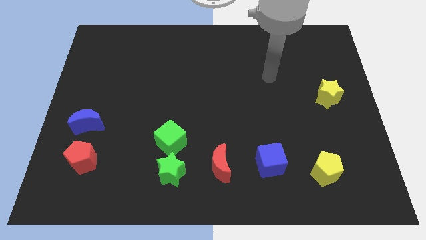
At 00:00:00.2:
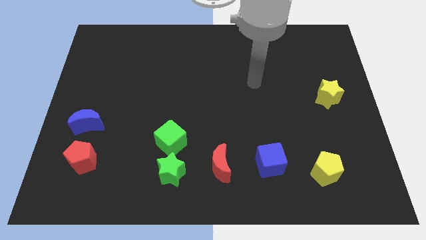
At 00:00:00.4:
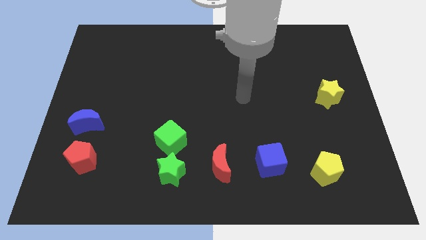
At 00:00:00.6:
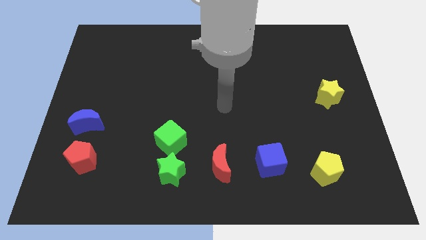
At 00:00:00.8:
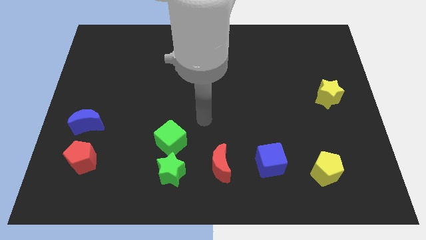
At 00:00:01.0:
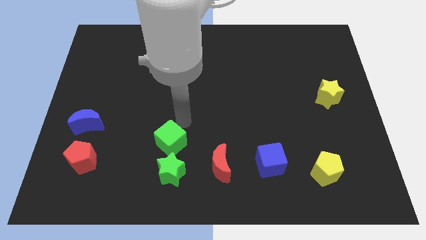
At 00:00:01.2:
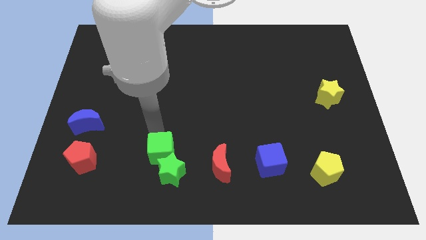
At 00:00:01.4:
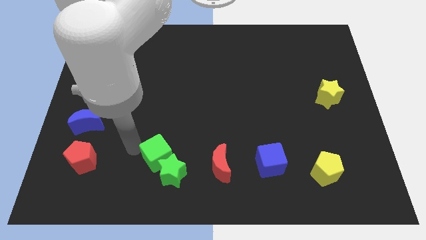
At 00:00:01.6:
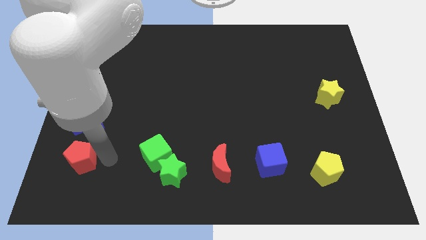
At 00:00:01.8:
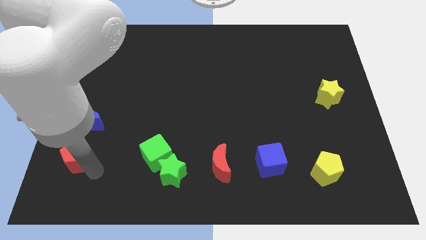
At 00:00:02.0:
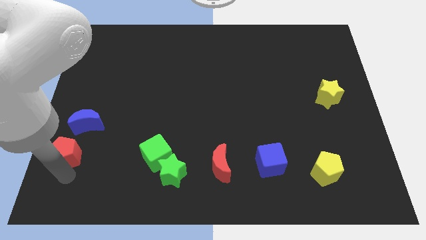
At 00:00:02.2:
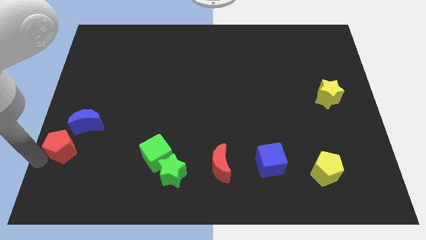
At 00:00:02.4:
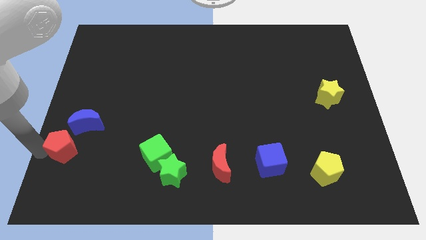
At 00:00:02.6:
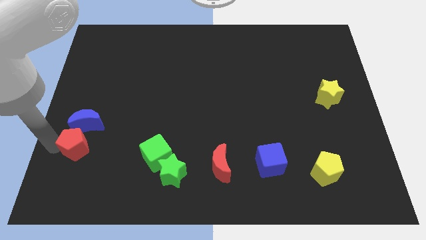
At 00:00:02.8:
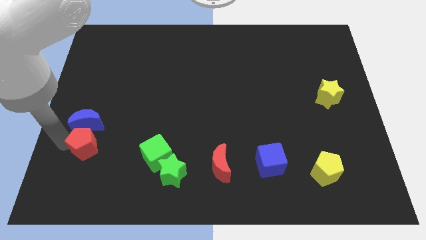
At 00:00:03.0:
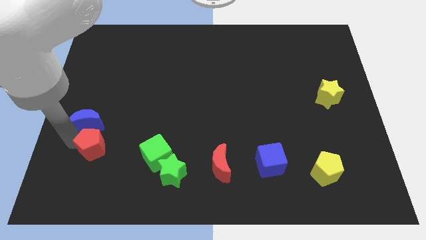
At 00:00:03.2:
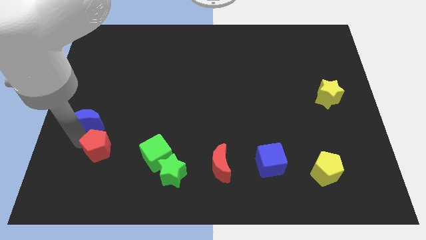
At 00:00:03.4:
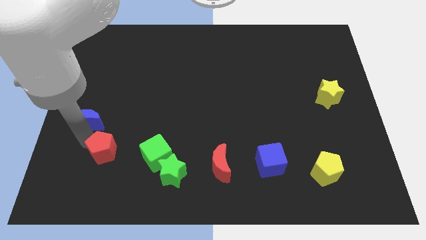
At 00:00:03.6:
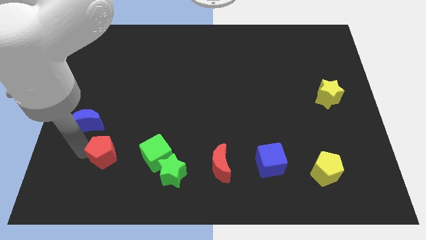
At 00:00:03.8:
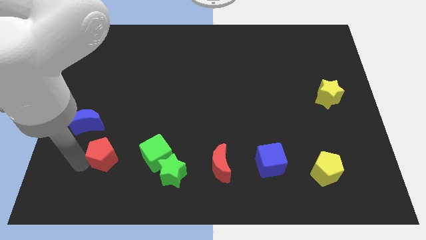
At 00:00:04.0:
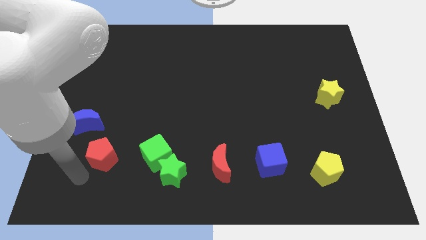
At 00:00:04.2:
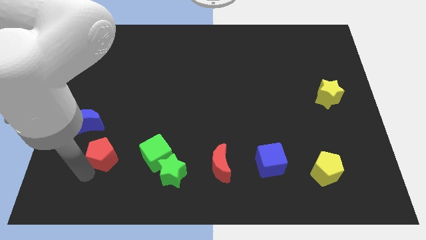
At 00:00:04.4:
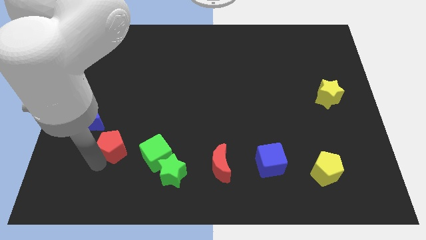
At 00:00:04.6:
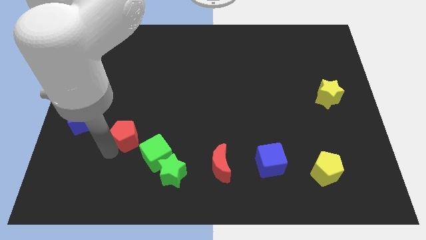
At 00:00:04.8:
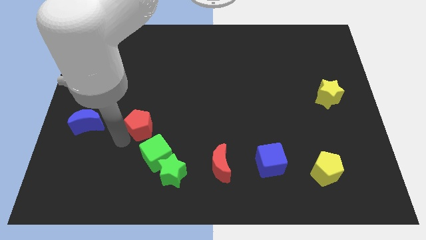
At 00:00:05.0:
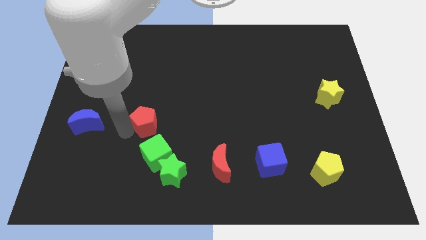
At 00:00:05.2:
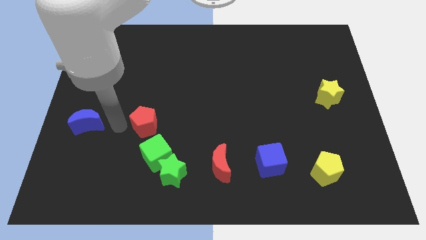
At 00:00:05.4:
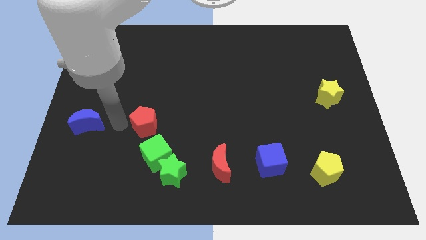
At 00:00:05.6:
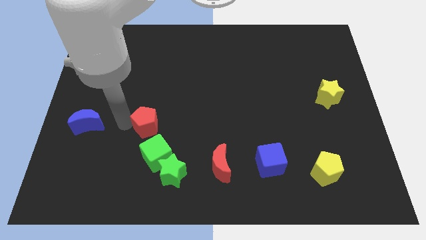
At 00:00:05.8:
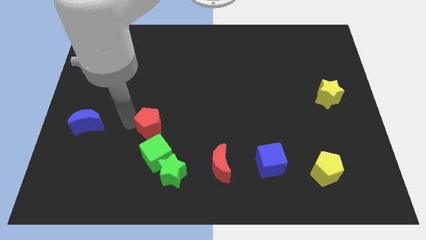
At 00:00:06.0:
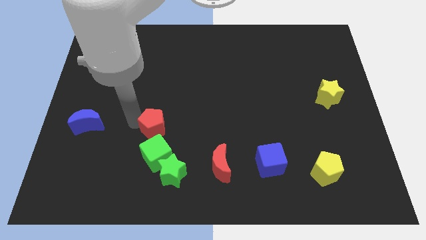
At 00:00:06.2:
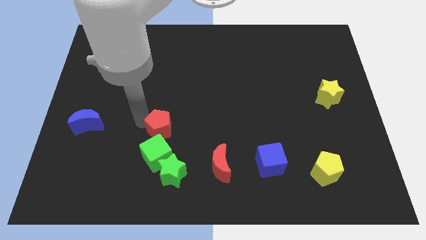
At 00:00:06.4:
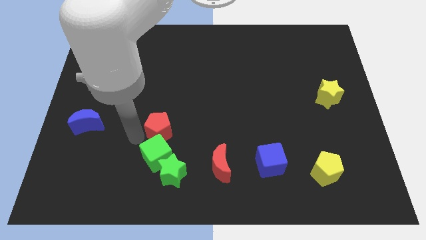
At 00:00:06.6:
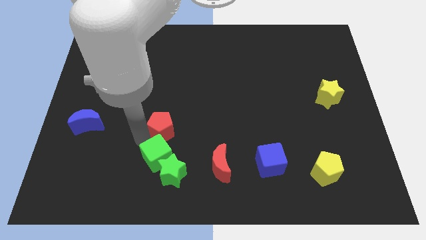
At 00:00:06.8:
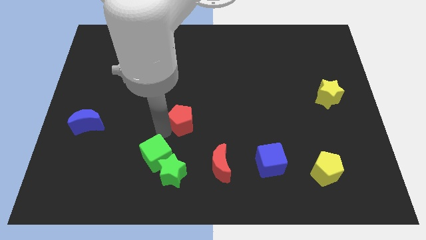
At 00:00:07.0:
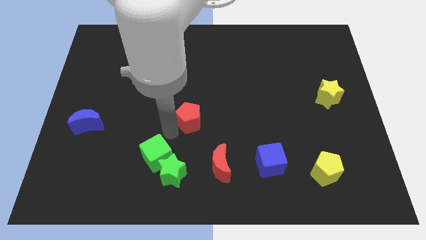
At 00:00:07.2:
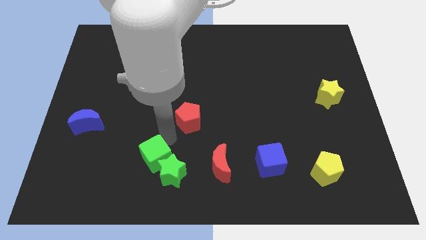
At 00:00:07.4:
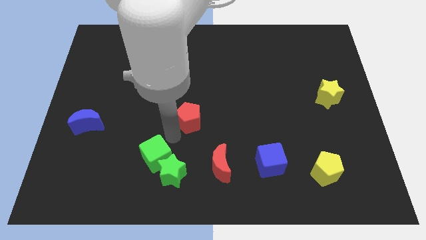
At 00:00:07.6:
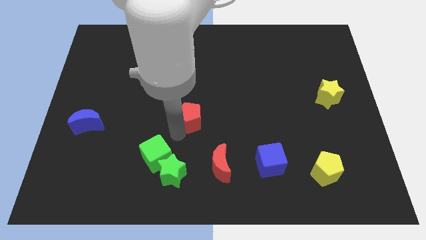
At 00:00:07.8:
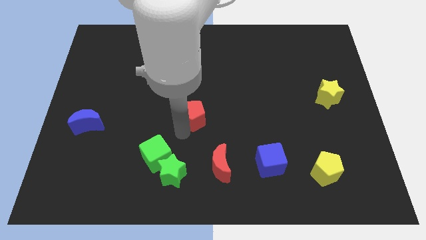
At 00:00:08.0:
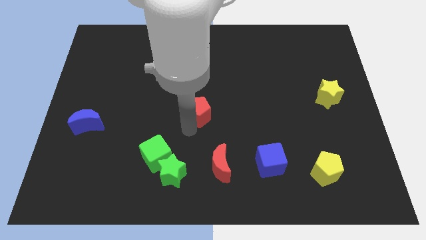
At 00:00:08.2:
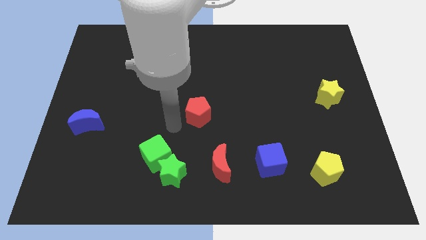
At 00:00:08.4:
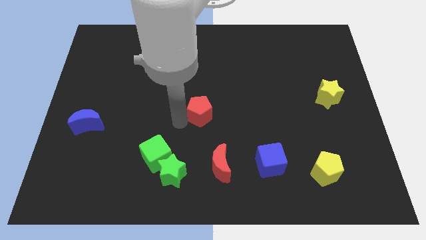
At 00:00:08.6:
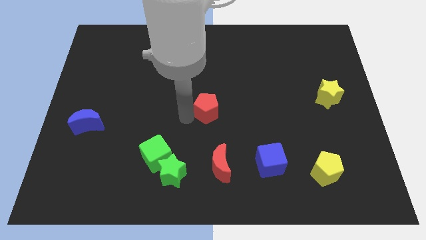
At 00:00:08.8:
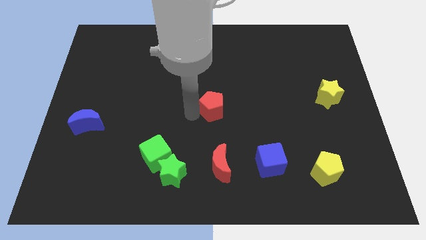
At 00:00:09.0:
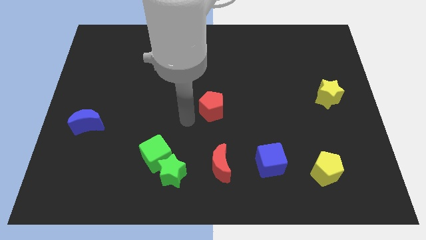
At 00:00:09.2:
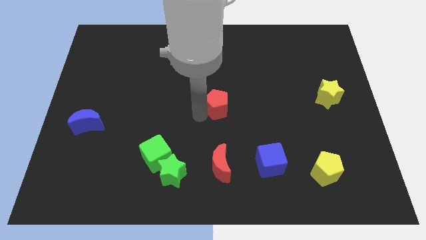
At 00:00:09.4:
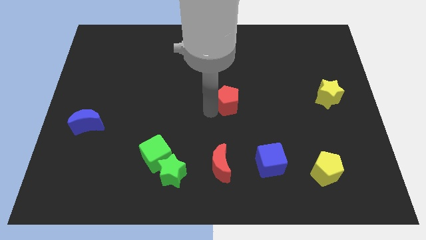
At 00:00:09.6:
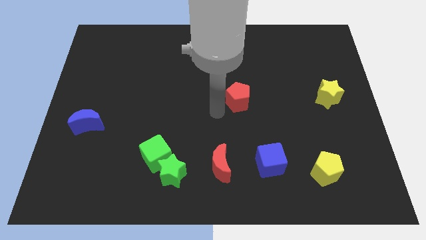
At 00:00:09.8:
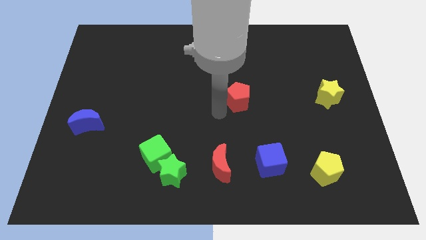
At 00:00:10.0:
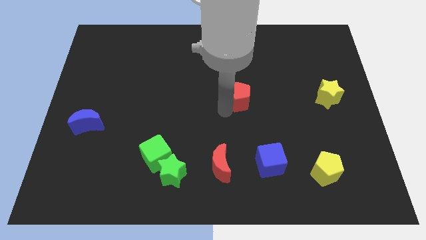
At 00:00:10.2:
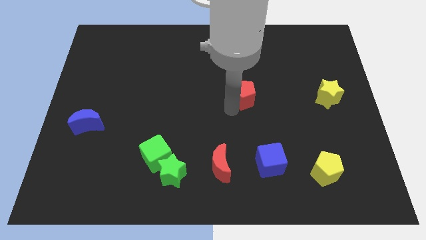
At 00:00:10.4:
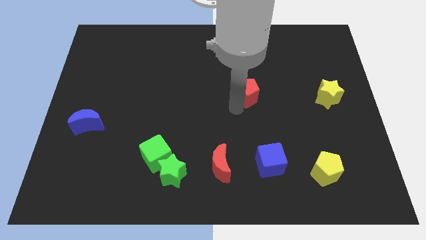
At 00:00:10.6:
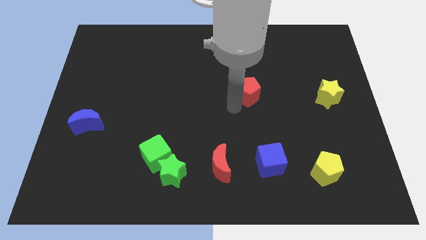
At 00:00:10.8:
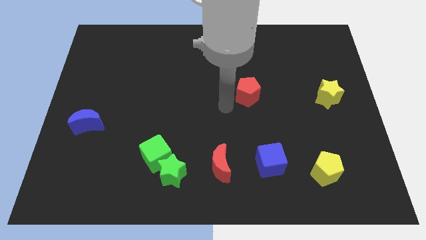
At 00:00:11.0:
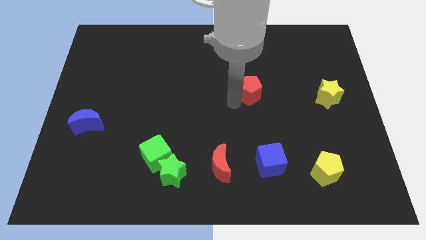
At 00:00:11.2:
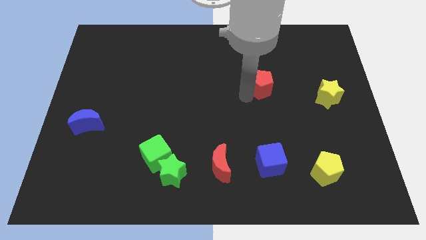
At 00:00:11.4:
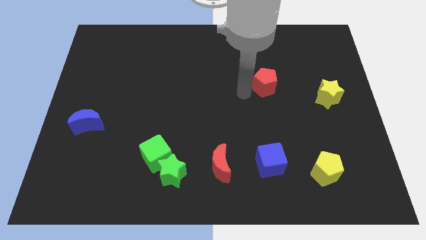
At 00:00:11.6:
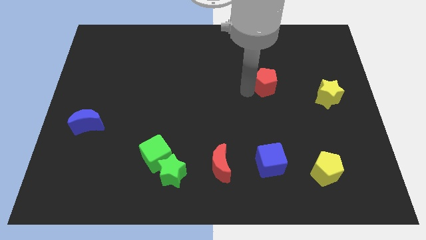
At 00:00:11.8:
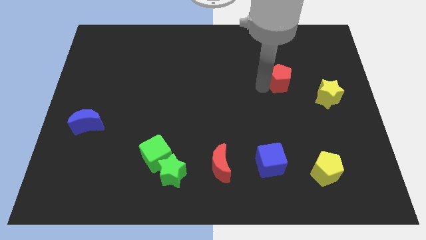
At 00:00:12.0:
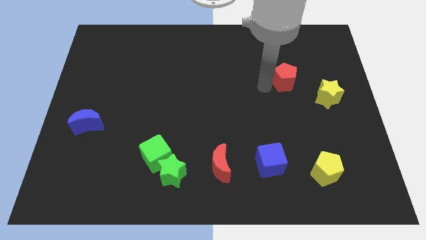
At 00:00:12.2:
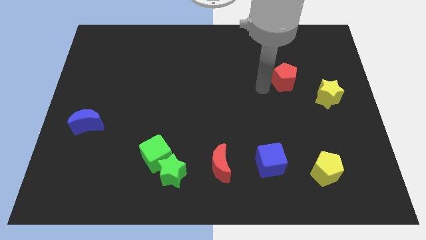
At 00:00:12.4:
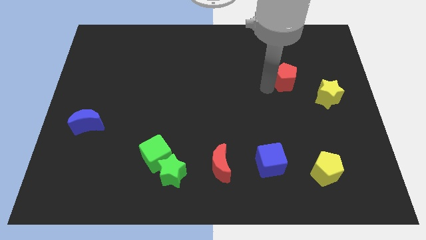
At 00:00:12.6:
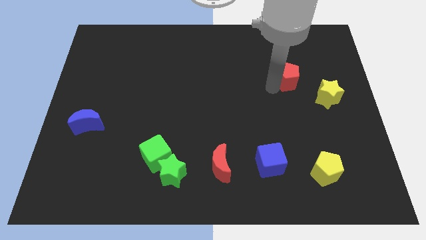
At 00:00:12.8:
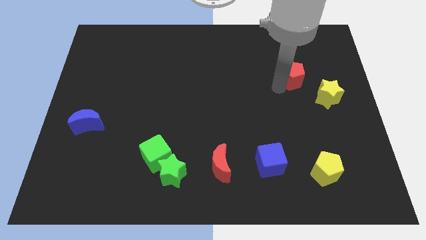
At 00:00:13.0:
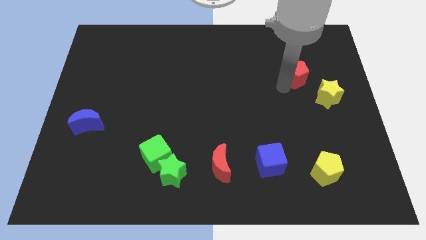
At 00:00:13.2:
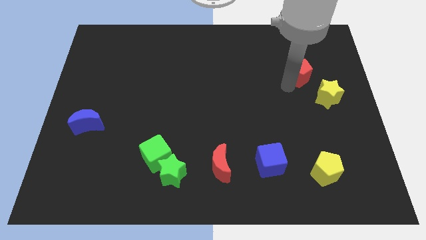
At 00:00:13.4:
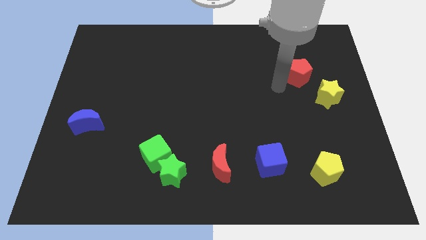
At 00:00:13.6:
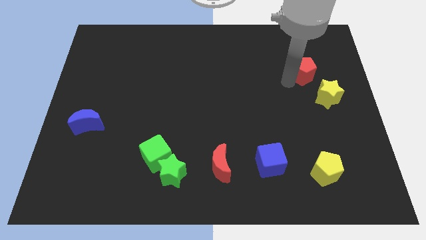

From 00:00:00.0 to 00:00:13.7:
put the red pentagon to the top side of the yellow star
